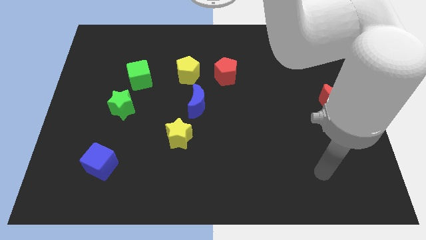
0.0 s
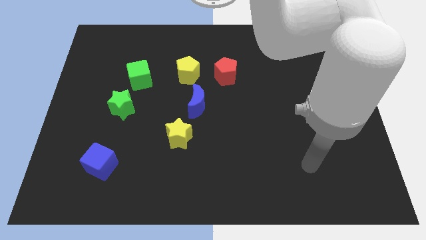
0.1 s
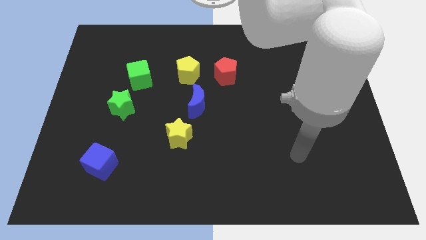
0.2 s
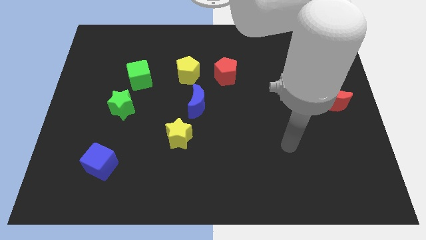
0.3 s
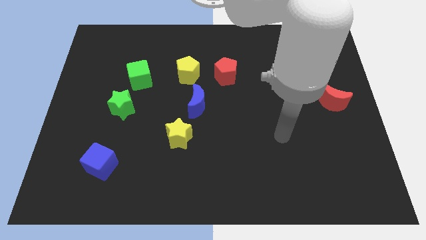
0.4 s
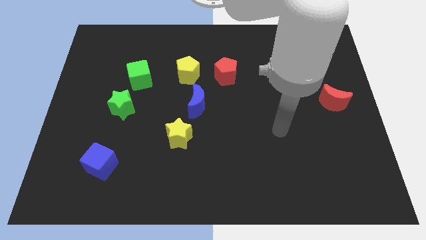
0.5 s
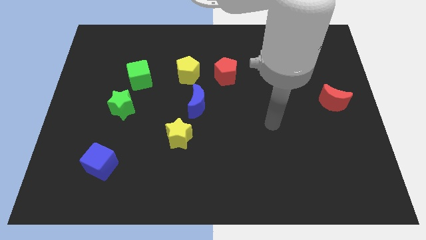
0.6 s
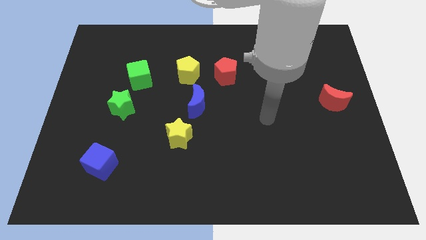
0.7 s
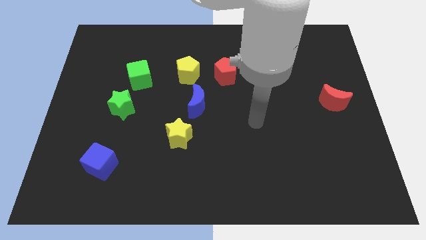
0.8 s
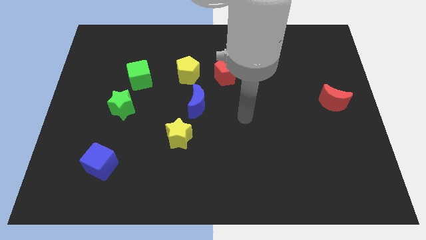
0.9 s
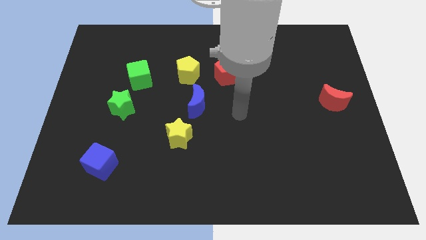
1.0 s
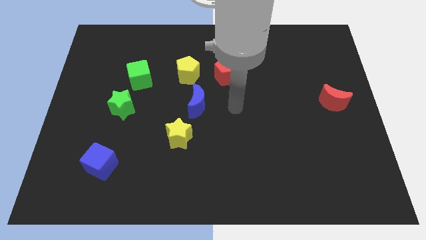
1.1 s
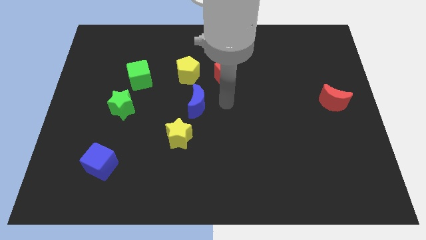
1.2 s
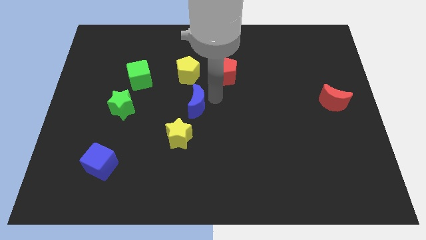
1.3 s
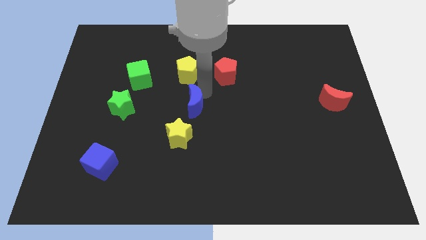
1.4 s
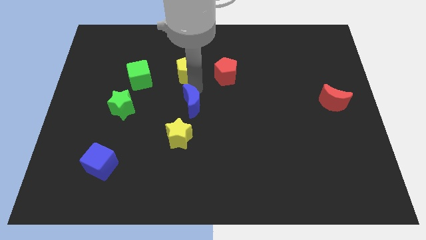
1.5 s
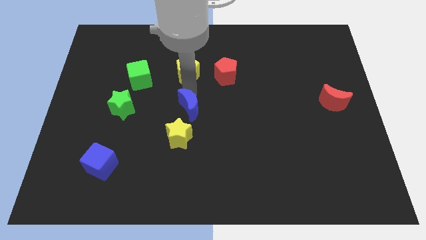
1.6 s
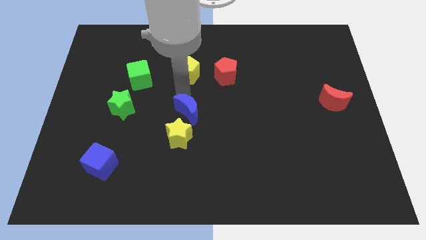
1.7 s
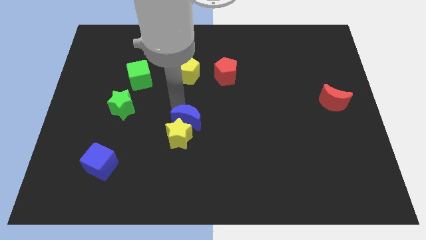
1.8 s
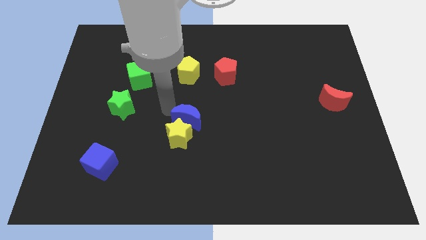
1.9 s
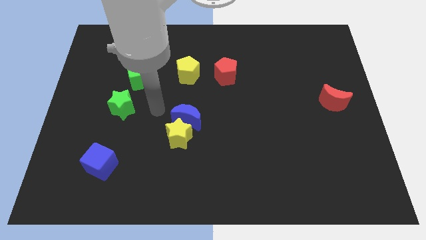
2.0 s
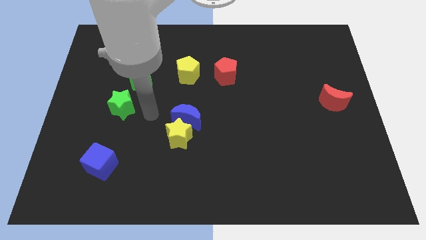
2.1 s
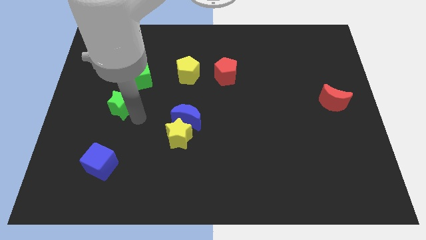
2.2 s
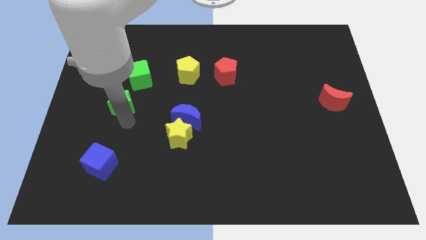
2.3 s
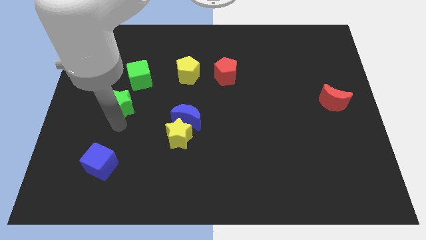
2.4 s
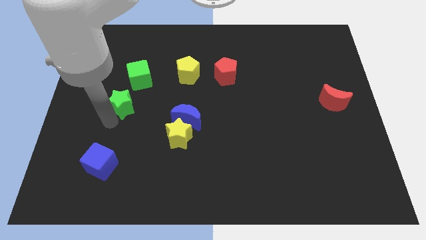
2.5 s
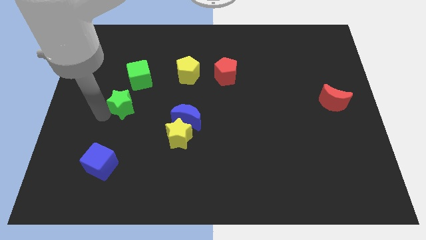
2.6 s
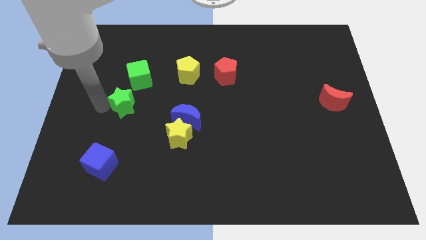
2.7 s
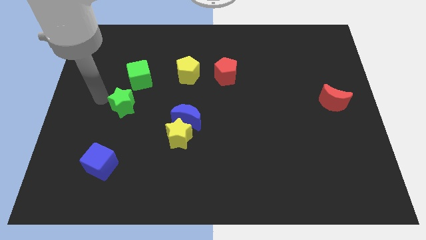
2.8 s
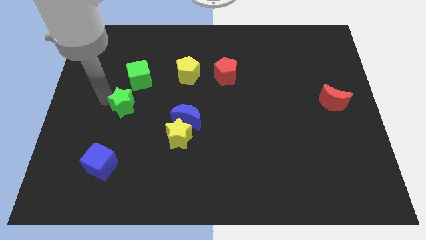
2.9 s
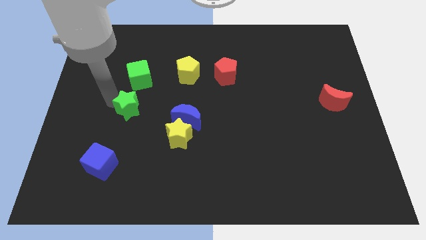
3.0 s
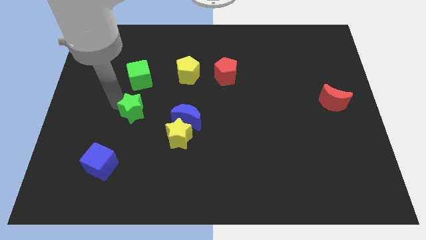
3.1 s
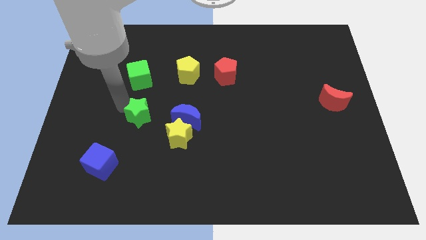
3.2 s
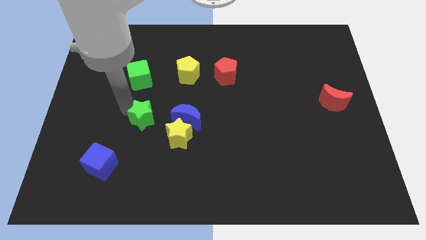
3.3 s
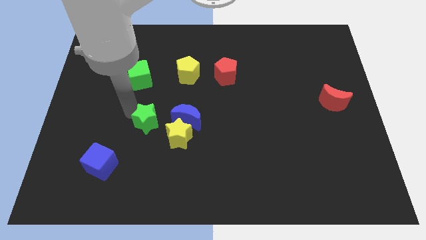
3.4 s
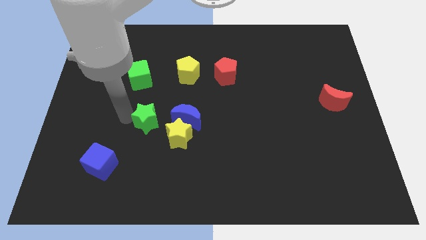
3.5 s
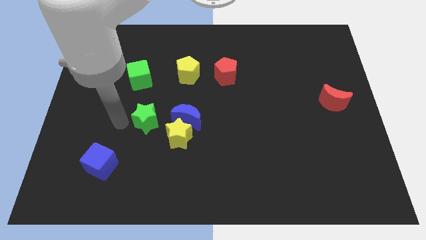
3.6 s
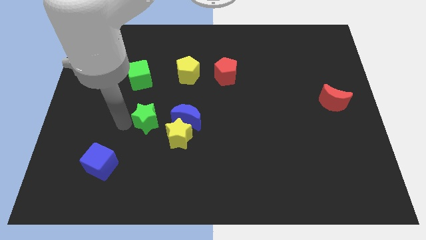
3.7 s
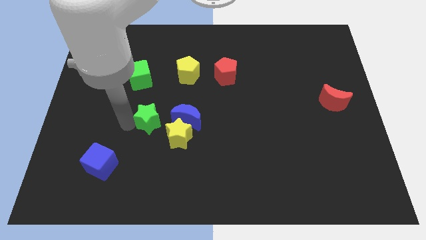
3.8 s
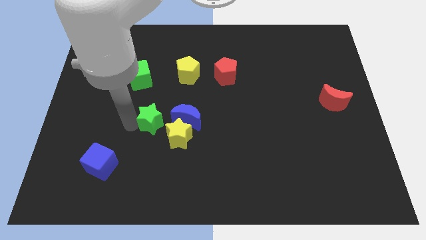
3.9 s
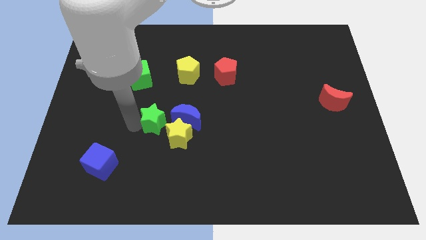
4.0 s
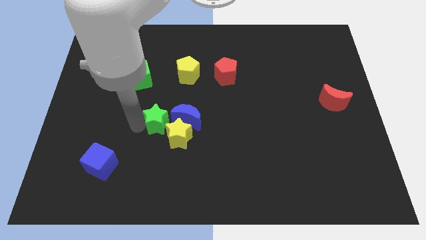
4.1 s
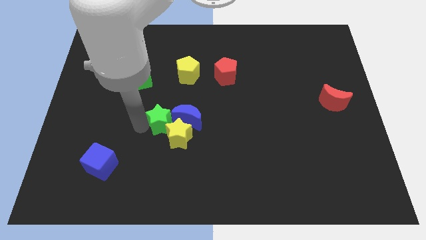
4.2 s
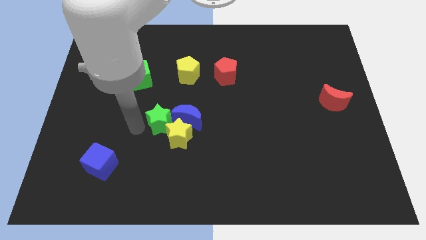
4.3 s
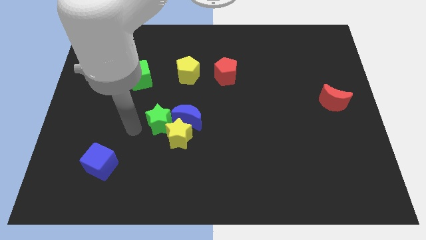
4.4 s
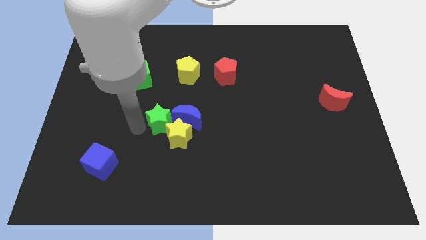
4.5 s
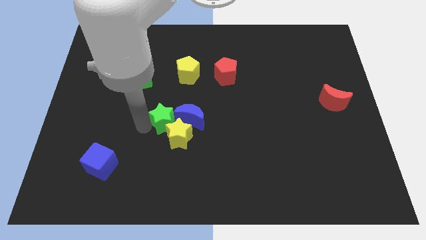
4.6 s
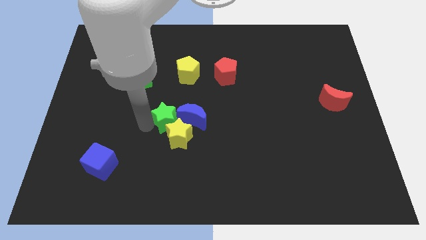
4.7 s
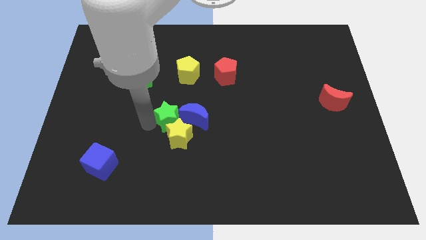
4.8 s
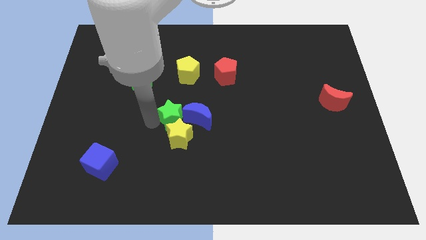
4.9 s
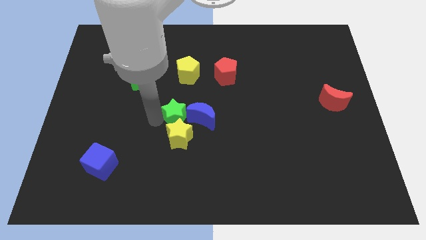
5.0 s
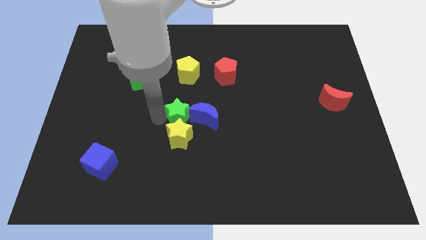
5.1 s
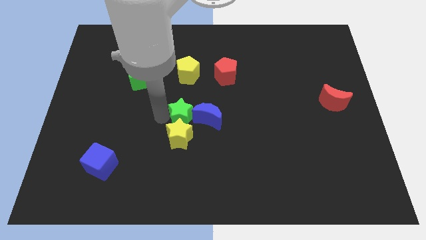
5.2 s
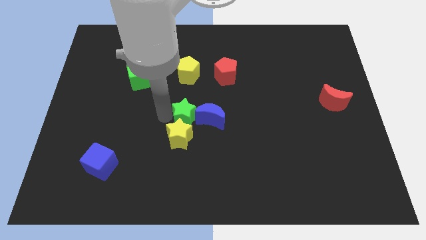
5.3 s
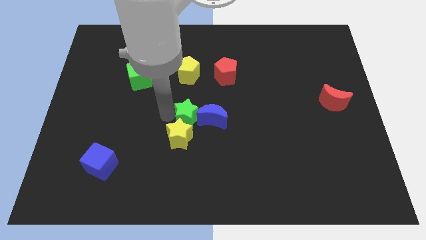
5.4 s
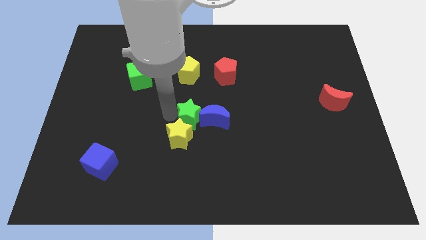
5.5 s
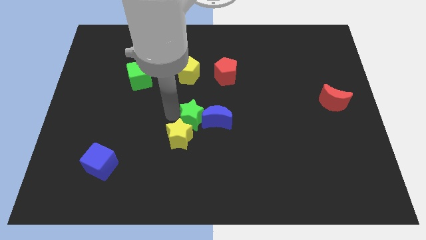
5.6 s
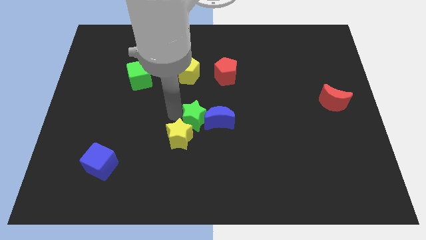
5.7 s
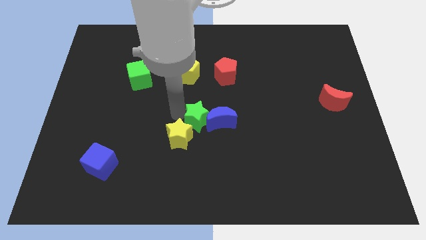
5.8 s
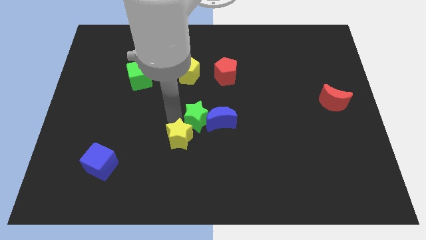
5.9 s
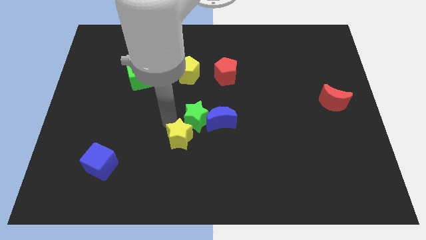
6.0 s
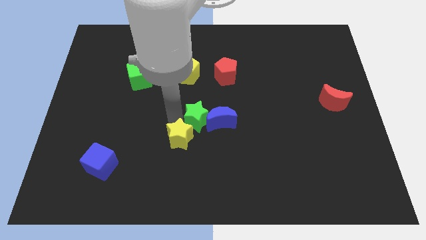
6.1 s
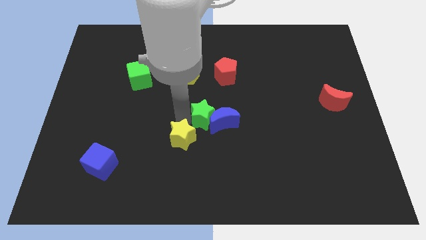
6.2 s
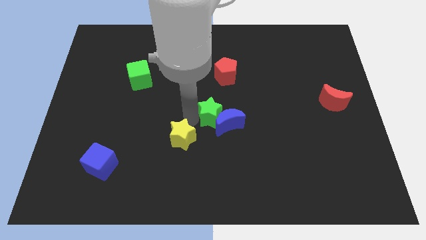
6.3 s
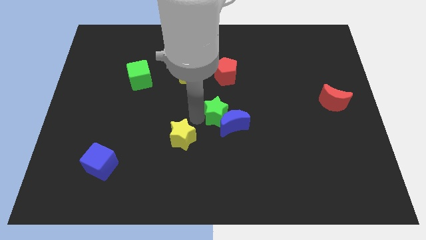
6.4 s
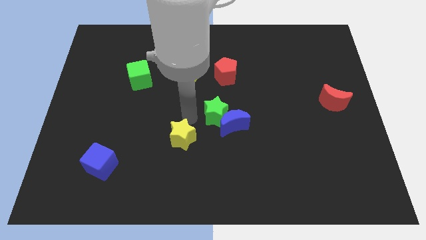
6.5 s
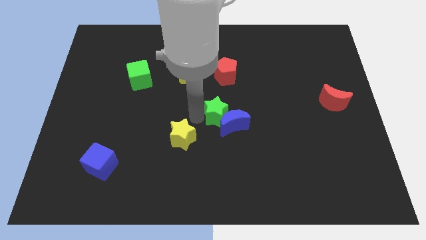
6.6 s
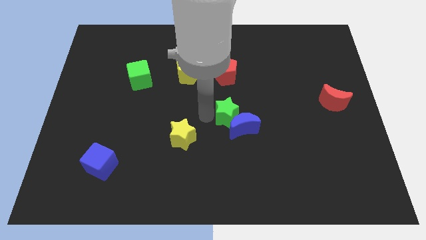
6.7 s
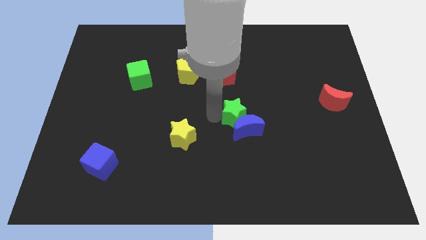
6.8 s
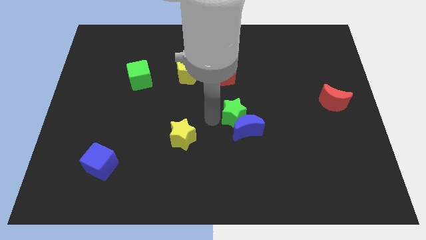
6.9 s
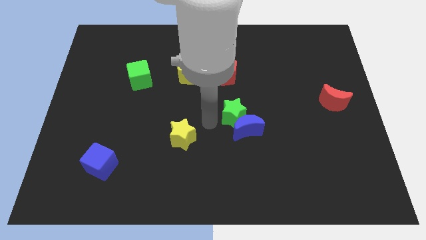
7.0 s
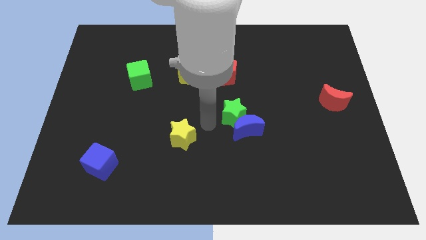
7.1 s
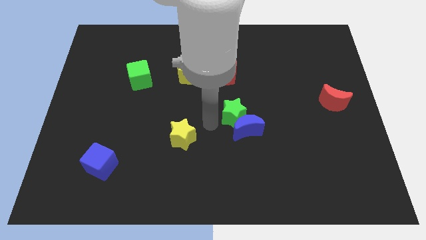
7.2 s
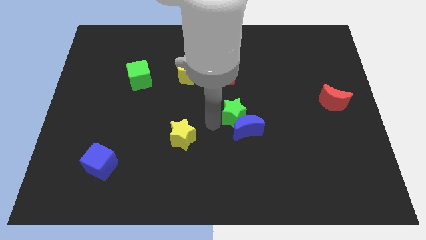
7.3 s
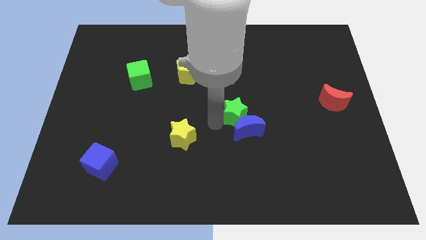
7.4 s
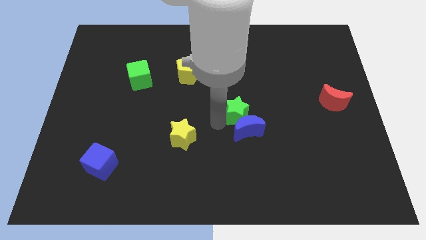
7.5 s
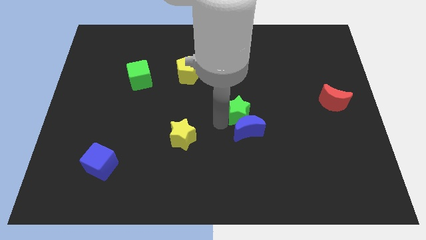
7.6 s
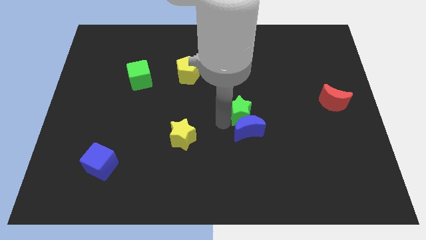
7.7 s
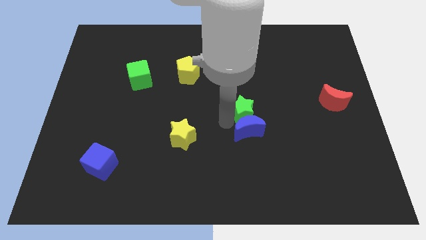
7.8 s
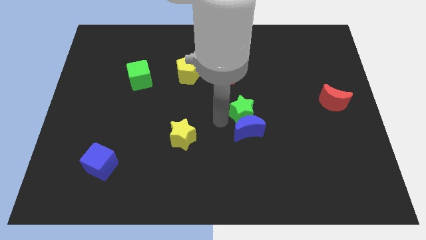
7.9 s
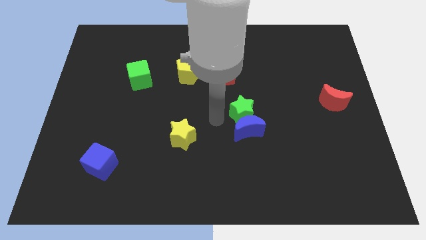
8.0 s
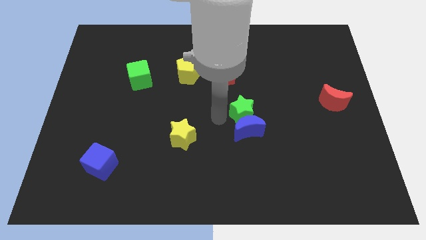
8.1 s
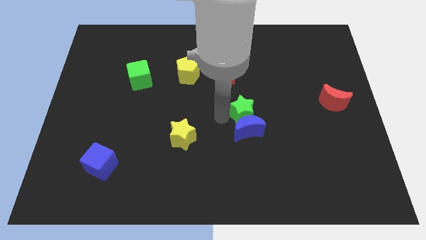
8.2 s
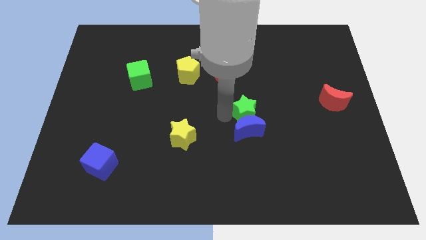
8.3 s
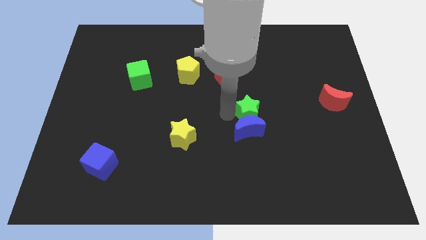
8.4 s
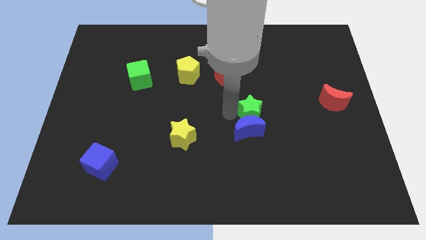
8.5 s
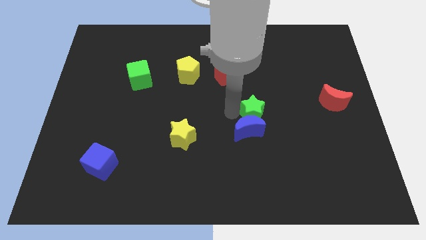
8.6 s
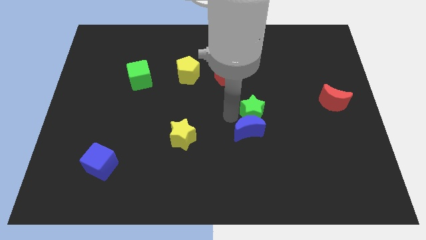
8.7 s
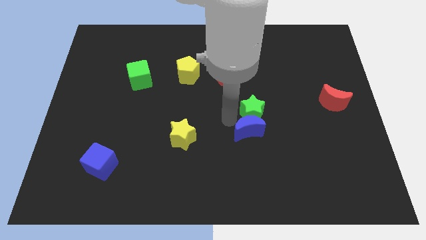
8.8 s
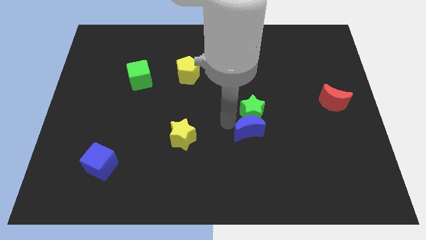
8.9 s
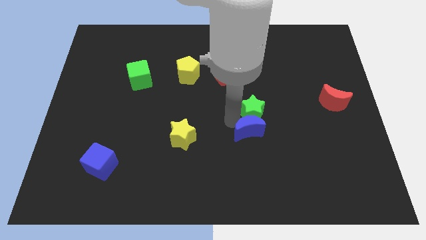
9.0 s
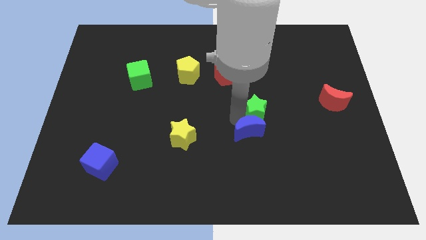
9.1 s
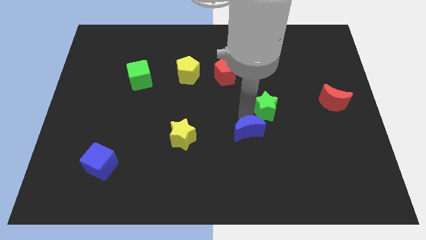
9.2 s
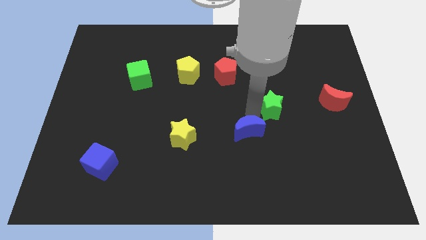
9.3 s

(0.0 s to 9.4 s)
push the green star just left of the red moon
